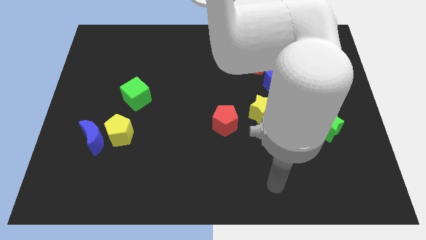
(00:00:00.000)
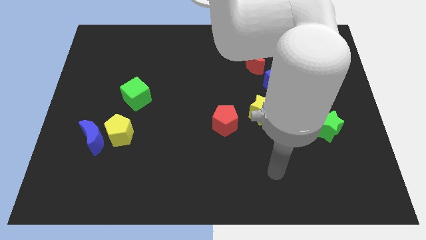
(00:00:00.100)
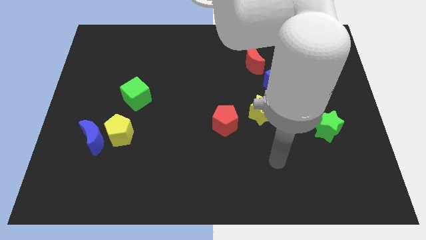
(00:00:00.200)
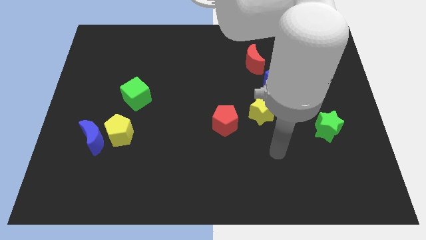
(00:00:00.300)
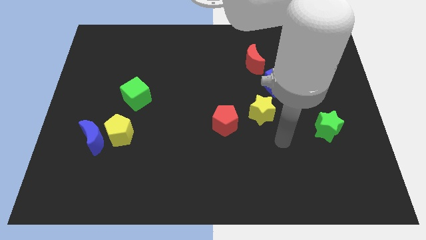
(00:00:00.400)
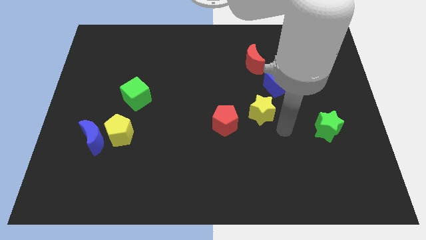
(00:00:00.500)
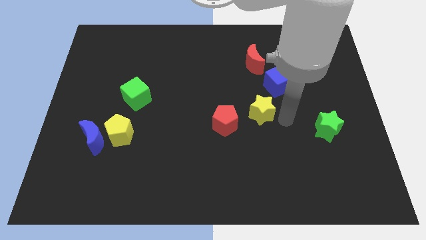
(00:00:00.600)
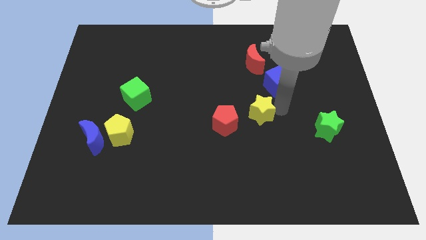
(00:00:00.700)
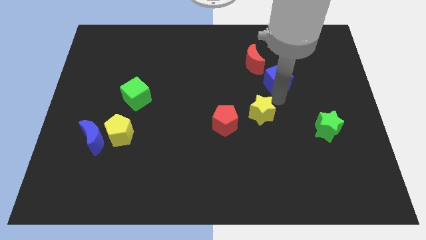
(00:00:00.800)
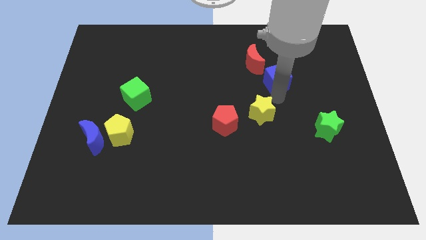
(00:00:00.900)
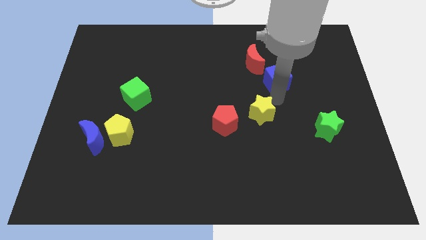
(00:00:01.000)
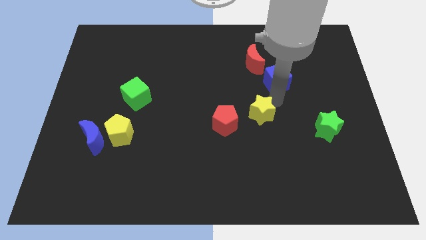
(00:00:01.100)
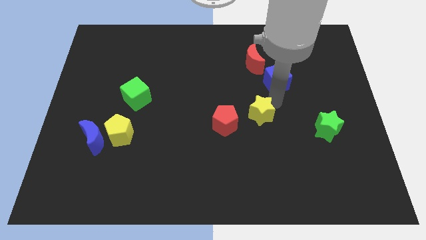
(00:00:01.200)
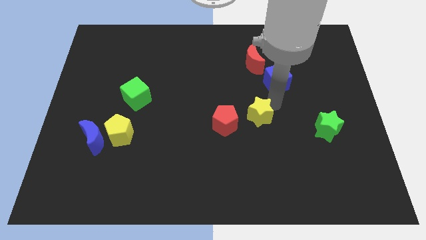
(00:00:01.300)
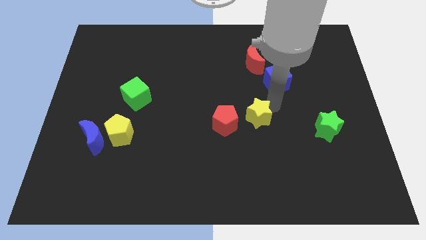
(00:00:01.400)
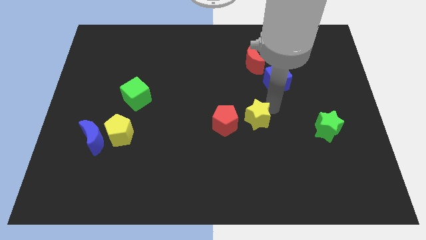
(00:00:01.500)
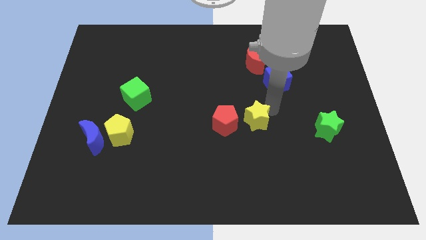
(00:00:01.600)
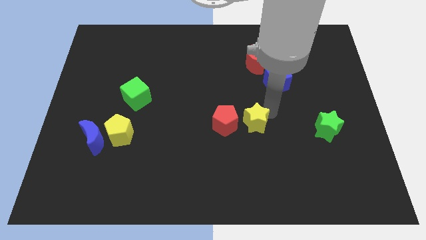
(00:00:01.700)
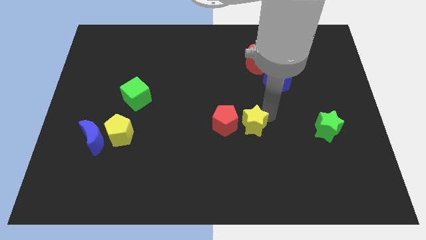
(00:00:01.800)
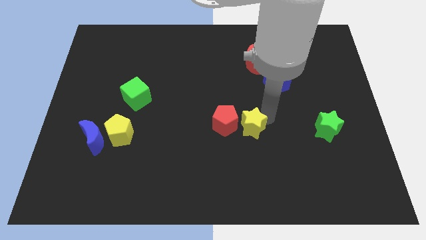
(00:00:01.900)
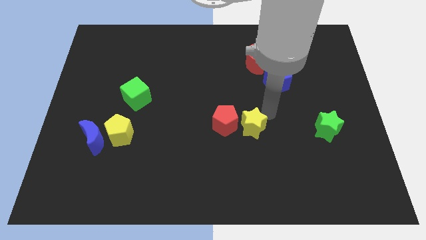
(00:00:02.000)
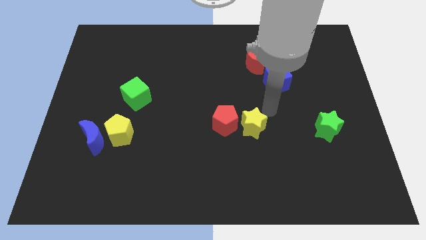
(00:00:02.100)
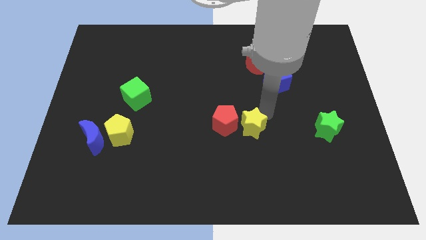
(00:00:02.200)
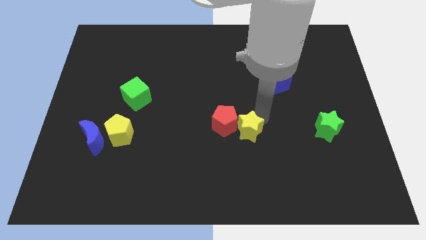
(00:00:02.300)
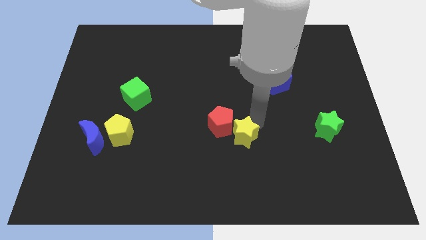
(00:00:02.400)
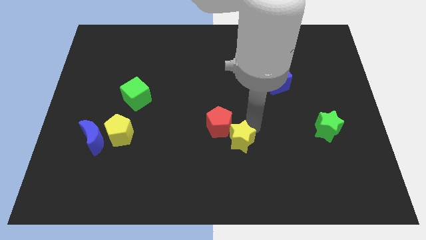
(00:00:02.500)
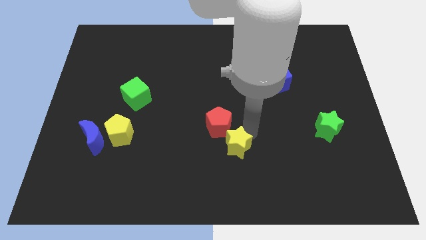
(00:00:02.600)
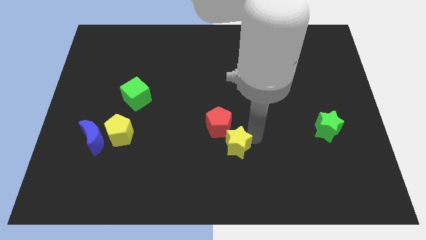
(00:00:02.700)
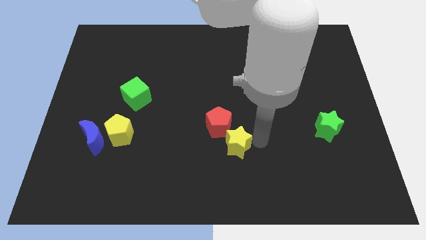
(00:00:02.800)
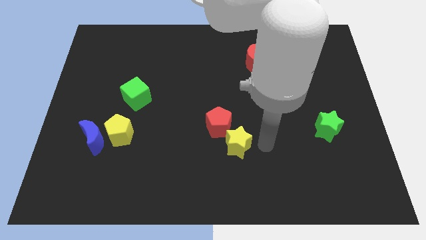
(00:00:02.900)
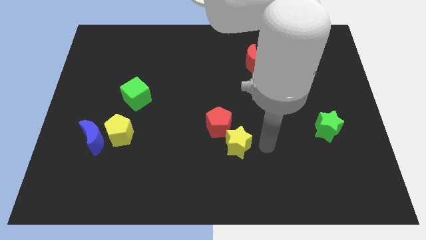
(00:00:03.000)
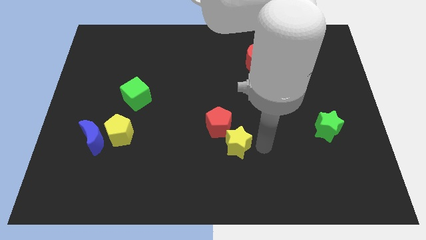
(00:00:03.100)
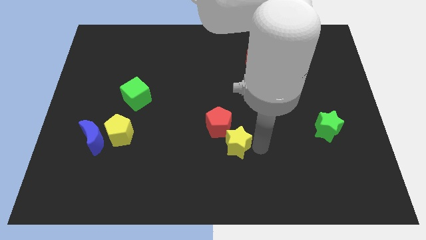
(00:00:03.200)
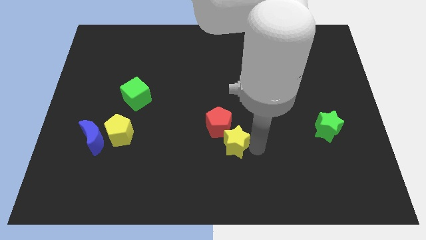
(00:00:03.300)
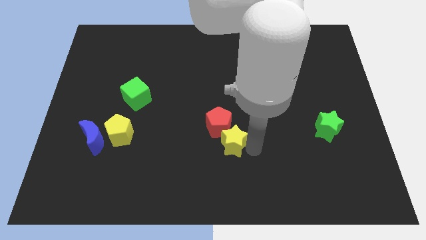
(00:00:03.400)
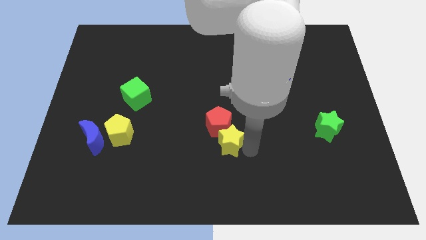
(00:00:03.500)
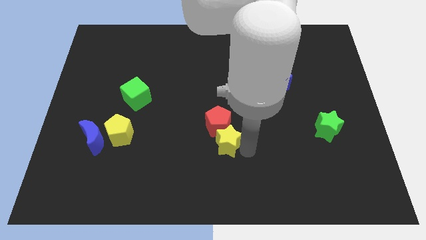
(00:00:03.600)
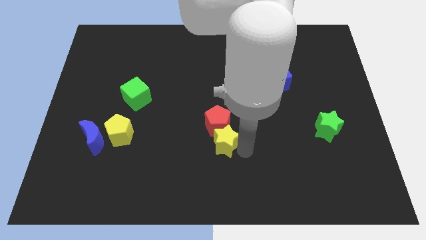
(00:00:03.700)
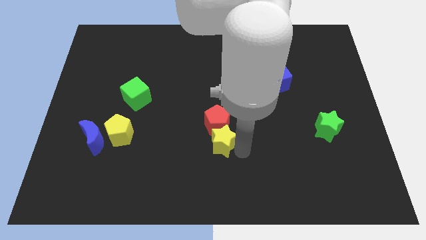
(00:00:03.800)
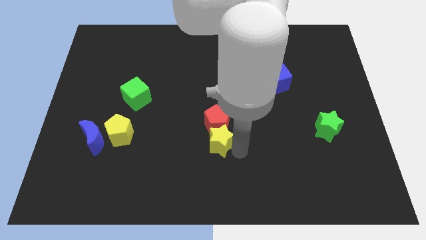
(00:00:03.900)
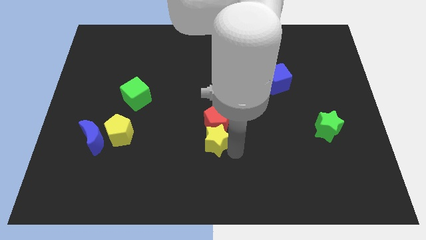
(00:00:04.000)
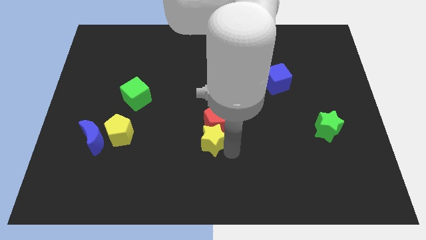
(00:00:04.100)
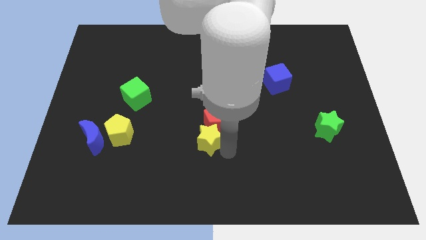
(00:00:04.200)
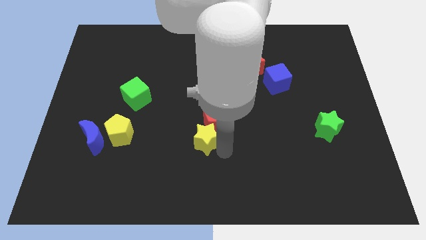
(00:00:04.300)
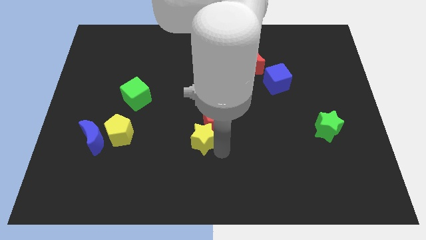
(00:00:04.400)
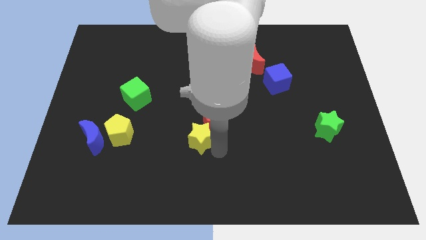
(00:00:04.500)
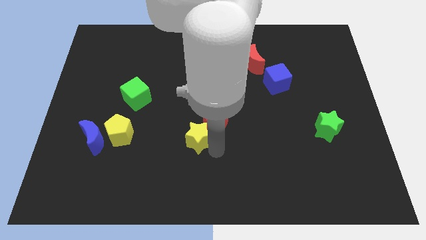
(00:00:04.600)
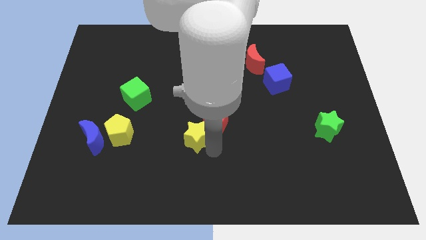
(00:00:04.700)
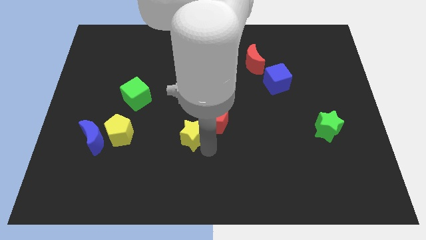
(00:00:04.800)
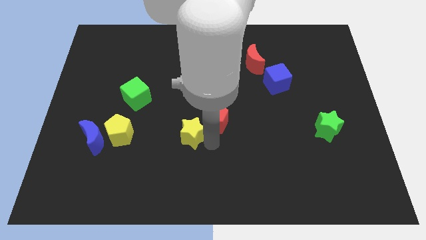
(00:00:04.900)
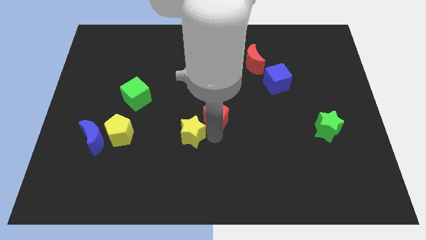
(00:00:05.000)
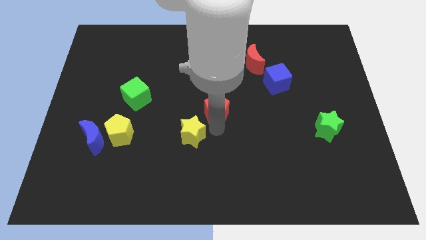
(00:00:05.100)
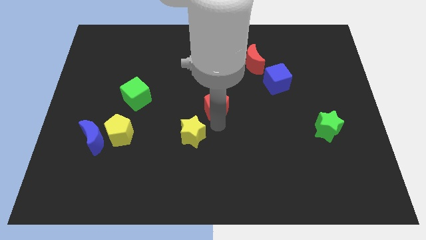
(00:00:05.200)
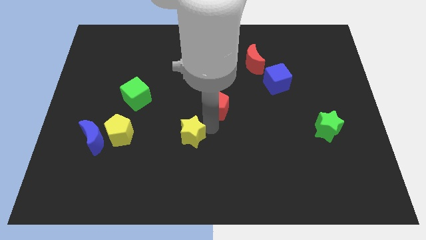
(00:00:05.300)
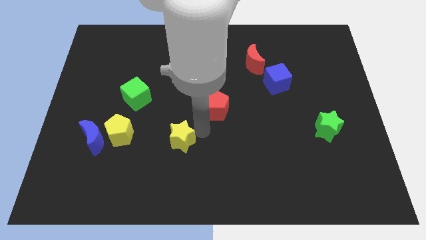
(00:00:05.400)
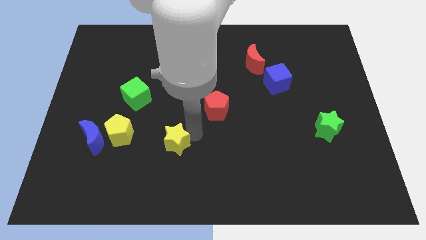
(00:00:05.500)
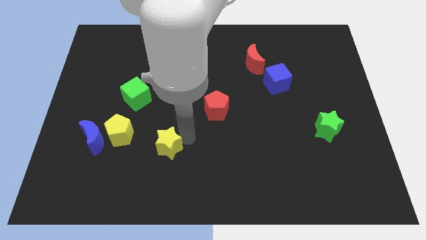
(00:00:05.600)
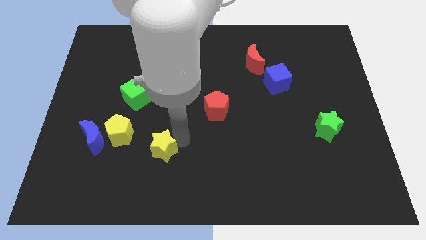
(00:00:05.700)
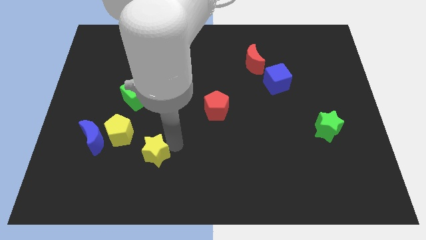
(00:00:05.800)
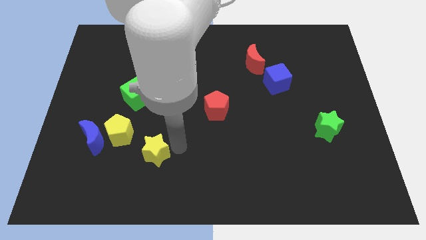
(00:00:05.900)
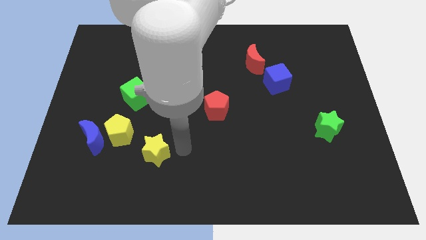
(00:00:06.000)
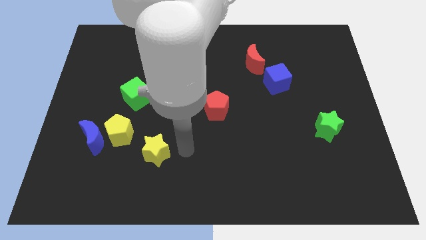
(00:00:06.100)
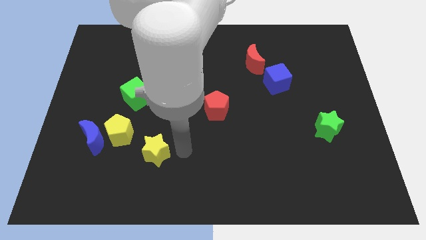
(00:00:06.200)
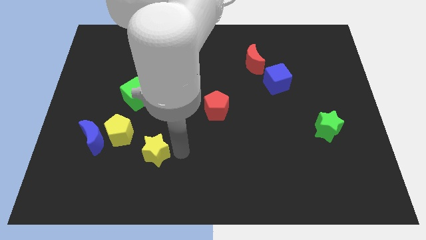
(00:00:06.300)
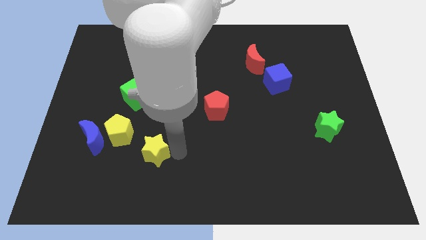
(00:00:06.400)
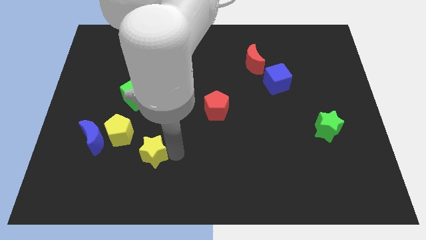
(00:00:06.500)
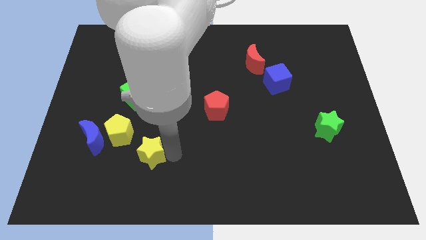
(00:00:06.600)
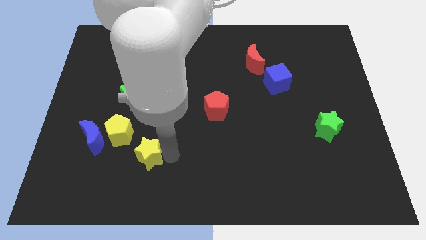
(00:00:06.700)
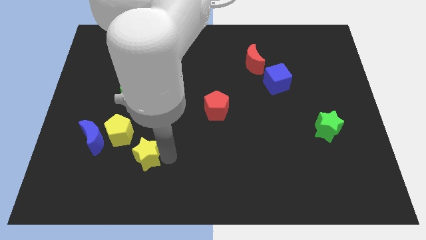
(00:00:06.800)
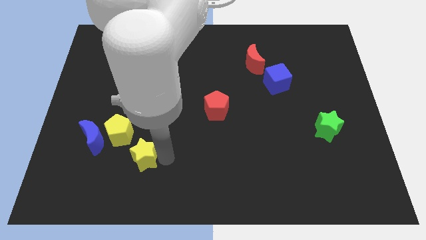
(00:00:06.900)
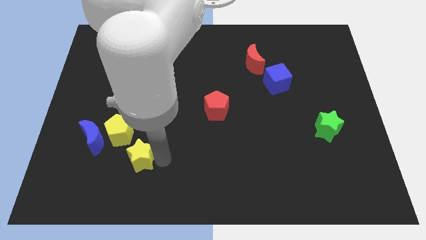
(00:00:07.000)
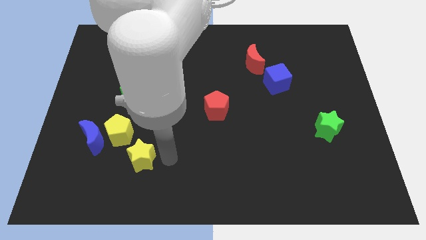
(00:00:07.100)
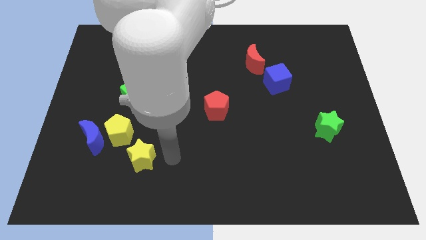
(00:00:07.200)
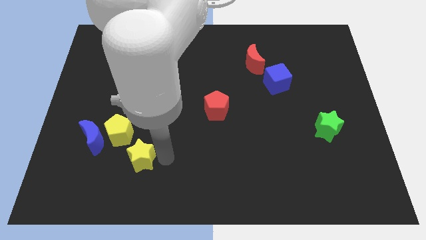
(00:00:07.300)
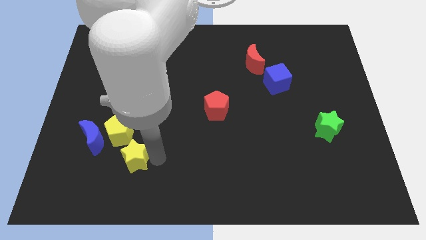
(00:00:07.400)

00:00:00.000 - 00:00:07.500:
put the yellow star to the bottom right of the blue moon
